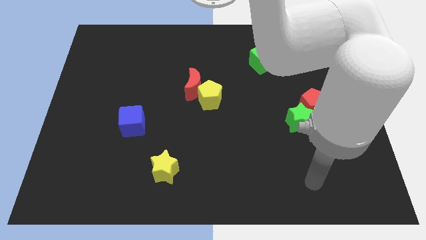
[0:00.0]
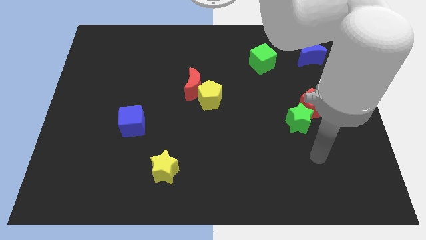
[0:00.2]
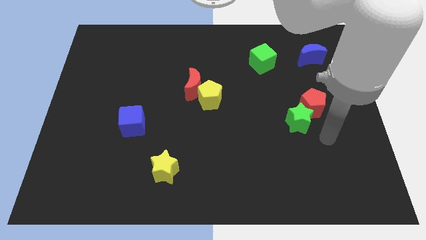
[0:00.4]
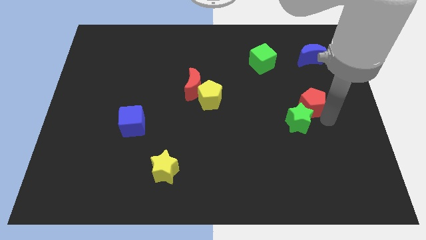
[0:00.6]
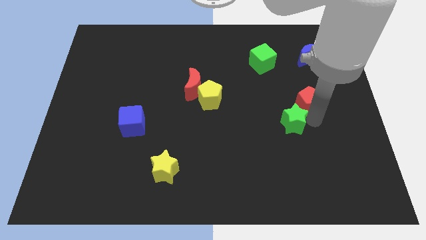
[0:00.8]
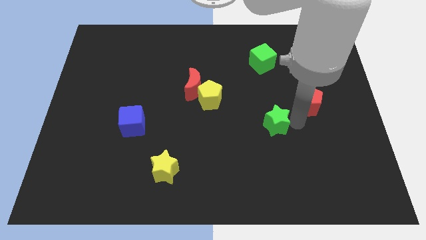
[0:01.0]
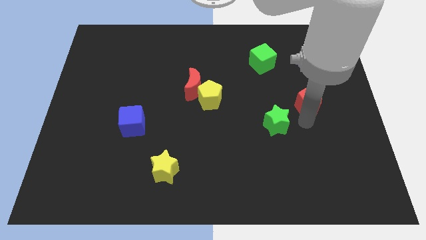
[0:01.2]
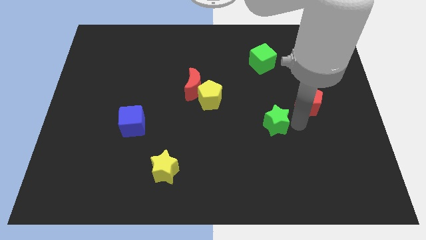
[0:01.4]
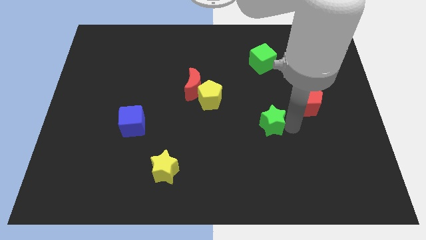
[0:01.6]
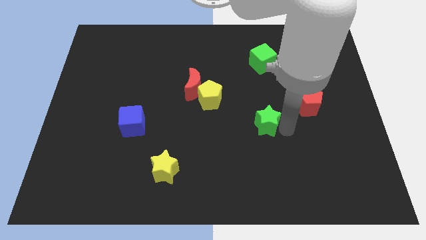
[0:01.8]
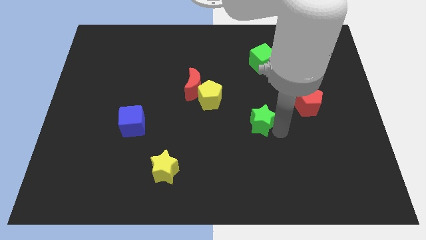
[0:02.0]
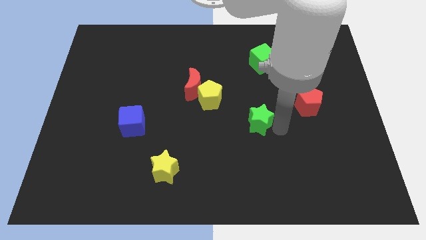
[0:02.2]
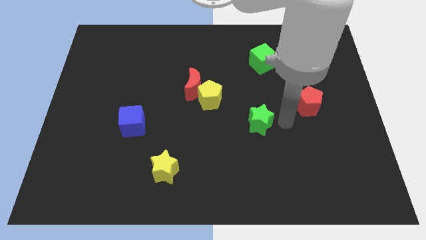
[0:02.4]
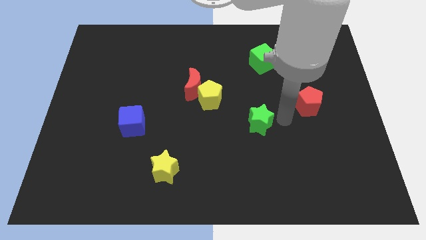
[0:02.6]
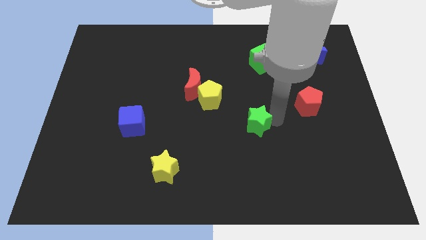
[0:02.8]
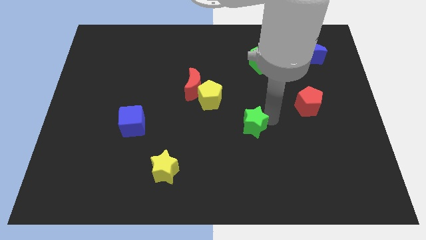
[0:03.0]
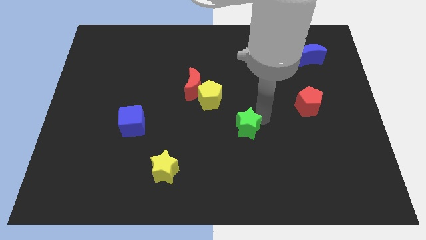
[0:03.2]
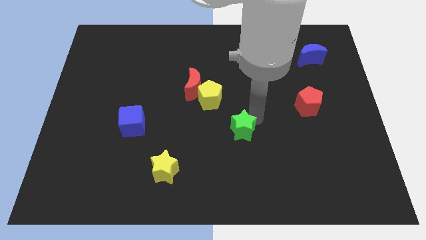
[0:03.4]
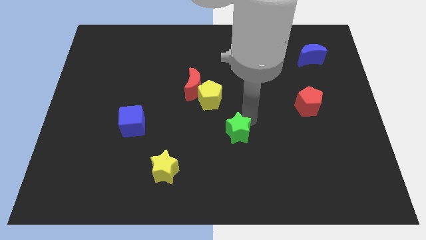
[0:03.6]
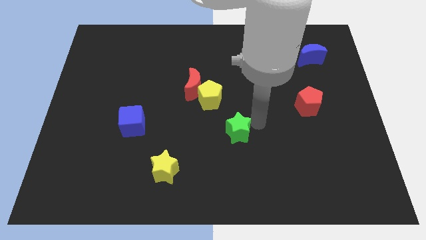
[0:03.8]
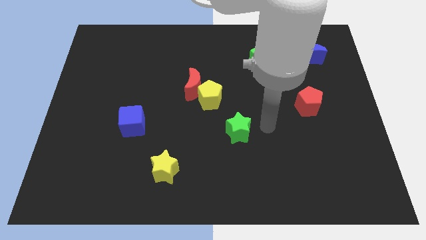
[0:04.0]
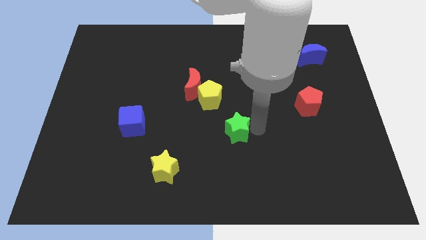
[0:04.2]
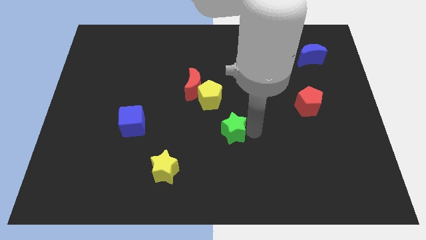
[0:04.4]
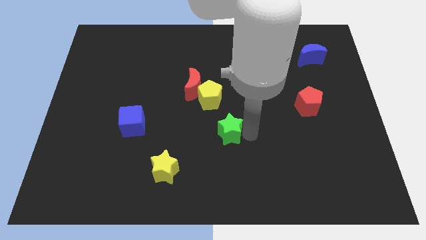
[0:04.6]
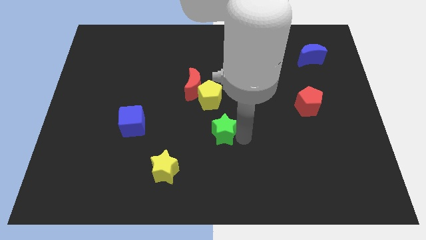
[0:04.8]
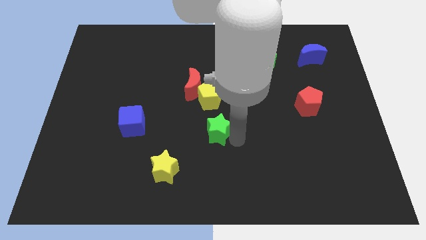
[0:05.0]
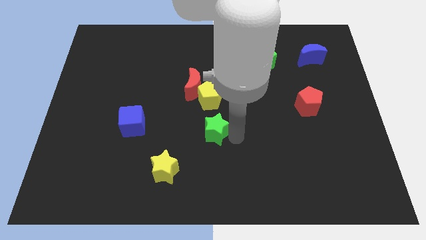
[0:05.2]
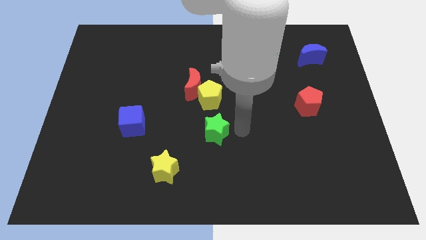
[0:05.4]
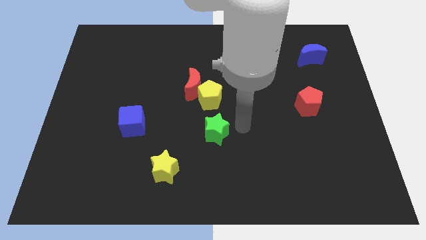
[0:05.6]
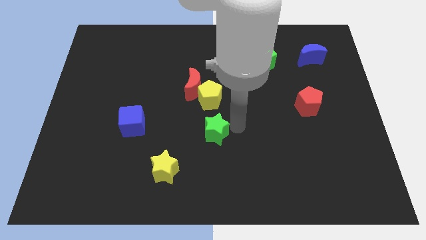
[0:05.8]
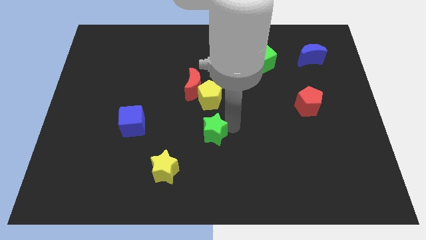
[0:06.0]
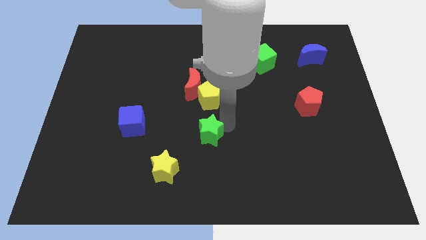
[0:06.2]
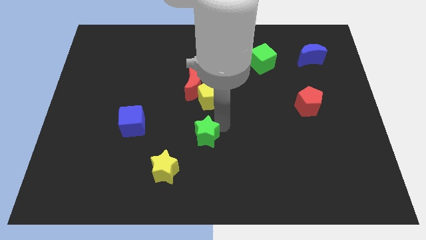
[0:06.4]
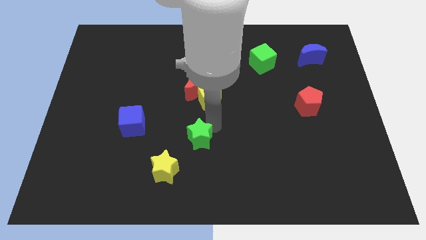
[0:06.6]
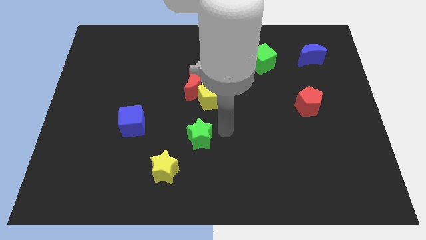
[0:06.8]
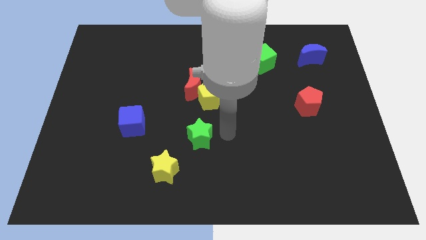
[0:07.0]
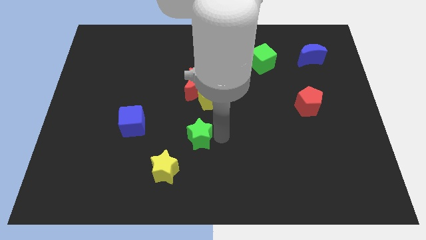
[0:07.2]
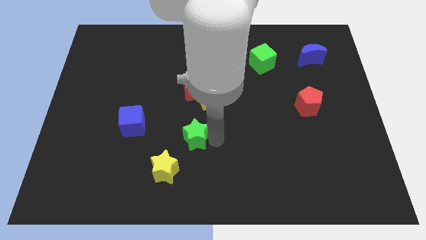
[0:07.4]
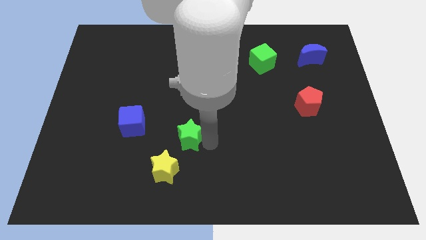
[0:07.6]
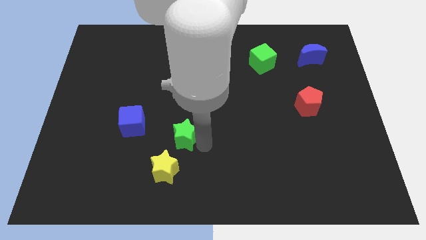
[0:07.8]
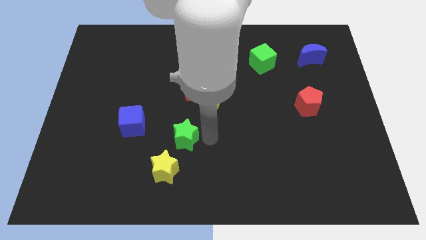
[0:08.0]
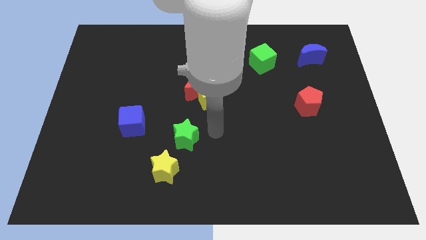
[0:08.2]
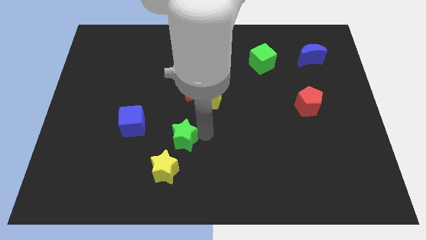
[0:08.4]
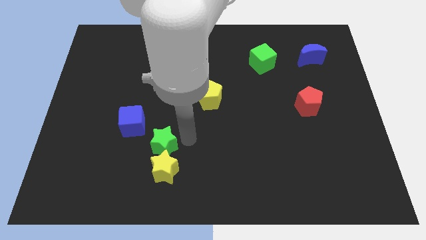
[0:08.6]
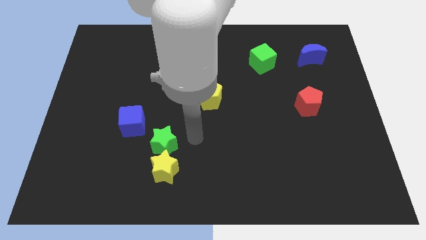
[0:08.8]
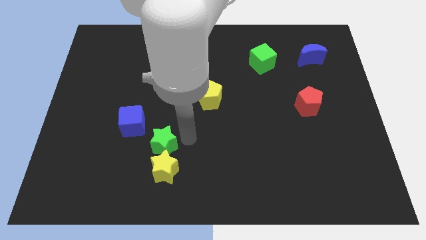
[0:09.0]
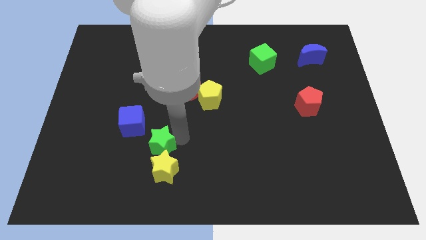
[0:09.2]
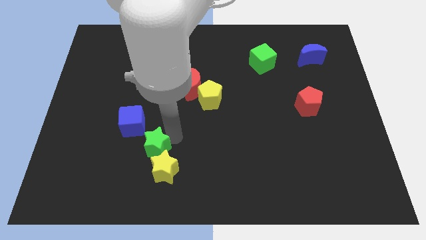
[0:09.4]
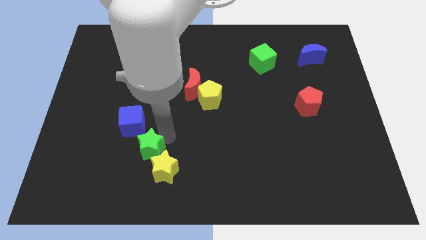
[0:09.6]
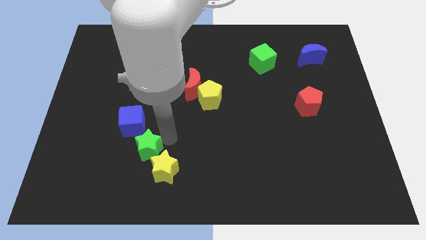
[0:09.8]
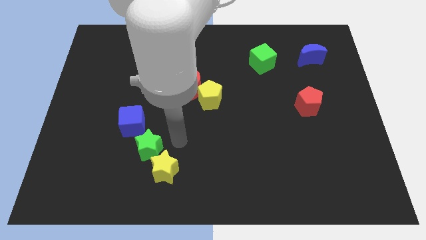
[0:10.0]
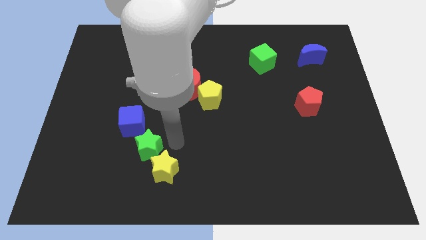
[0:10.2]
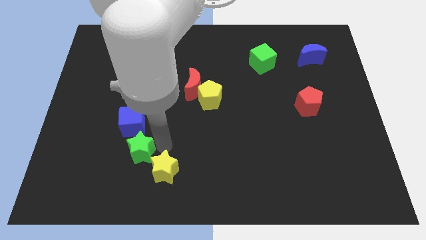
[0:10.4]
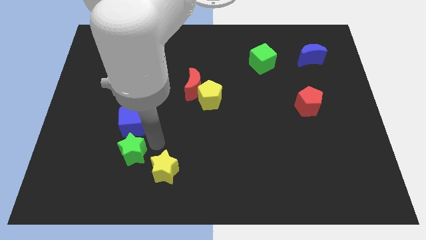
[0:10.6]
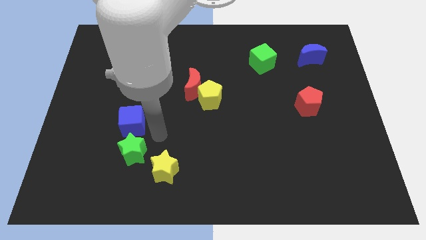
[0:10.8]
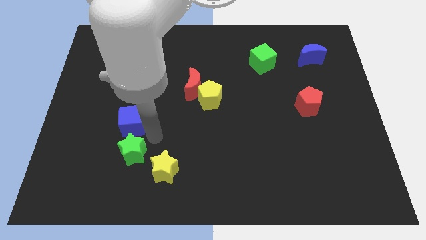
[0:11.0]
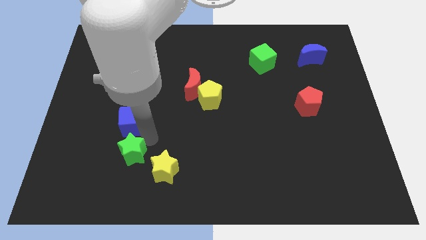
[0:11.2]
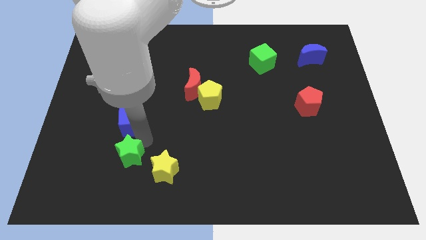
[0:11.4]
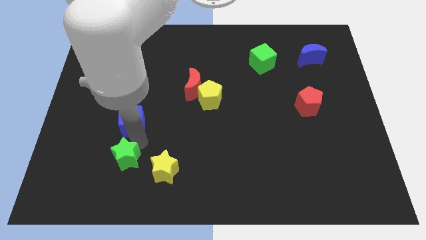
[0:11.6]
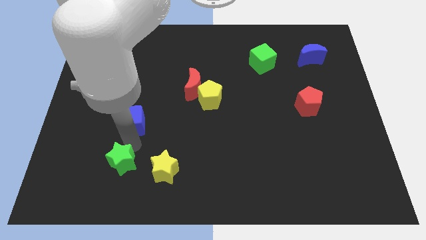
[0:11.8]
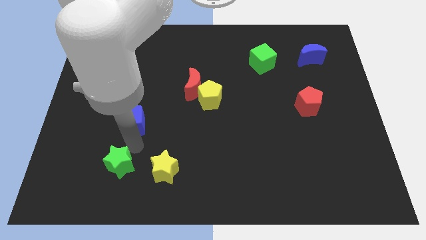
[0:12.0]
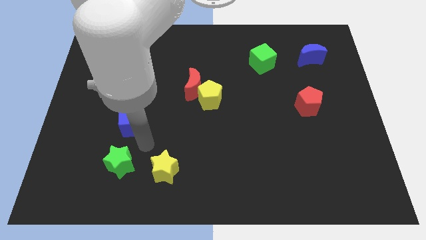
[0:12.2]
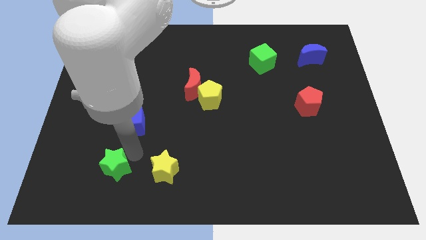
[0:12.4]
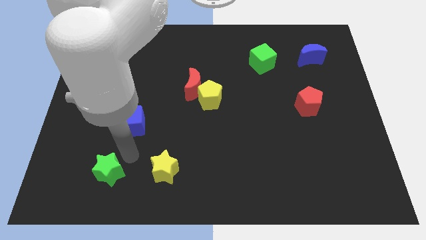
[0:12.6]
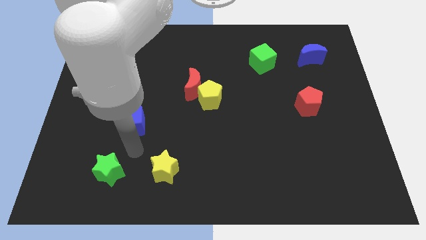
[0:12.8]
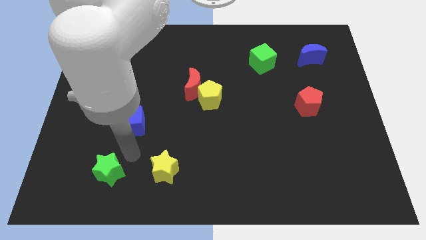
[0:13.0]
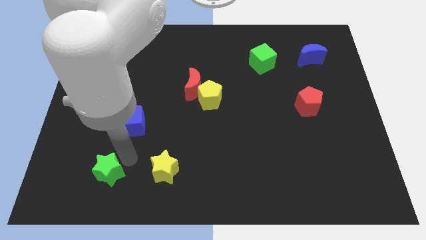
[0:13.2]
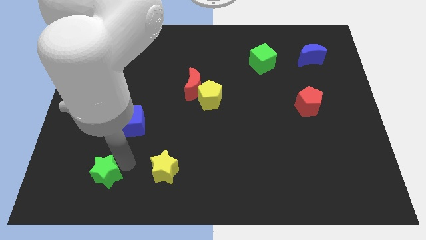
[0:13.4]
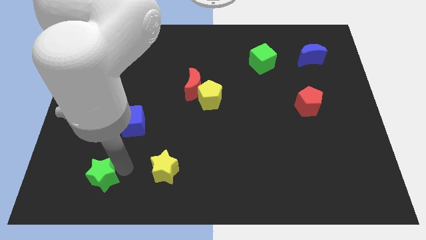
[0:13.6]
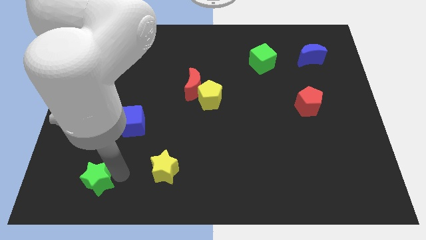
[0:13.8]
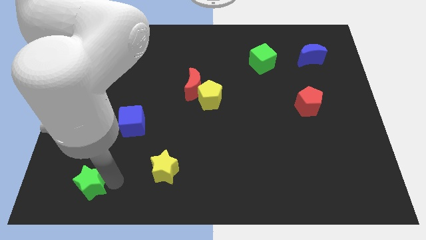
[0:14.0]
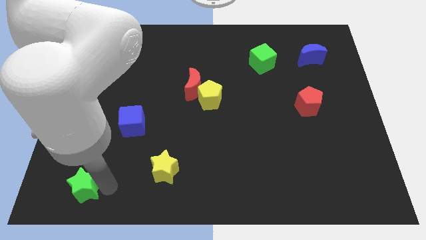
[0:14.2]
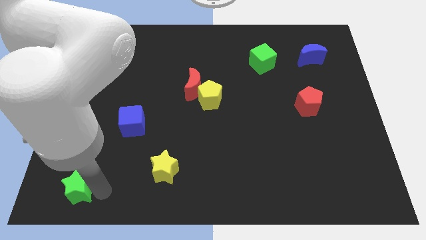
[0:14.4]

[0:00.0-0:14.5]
slide the green star to the bottom left corner
